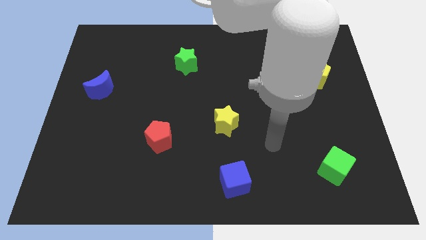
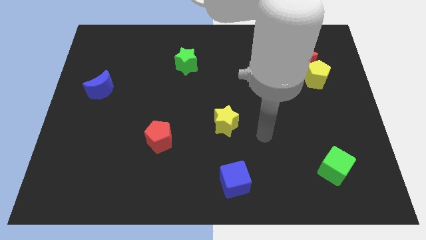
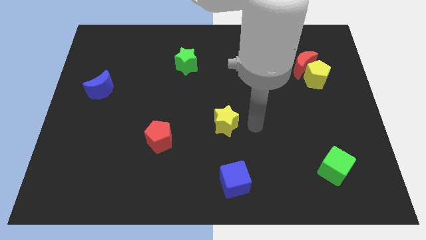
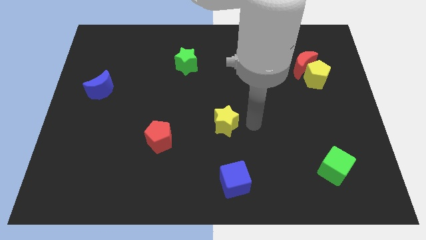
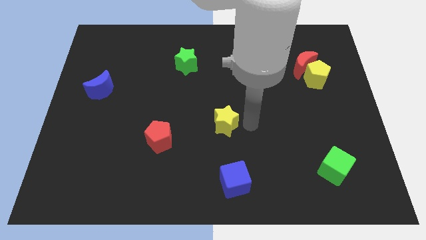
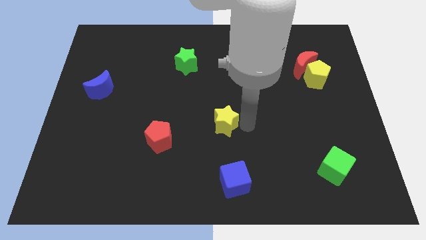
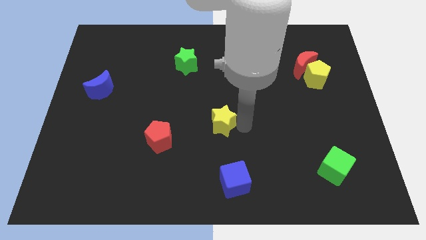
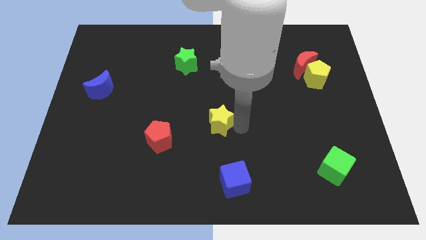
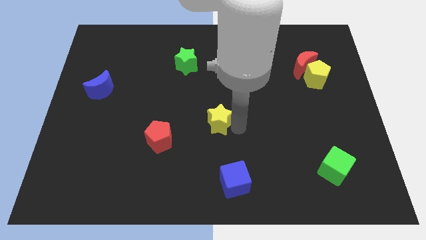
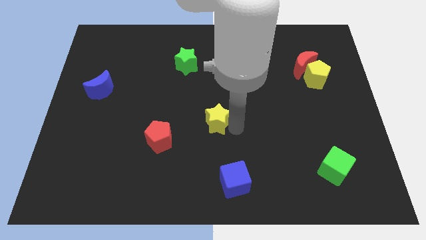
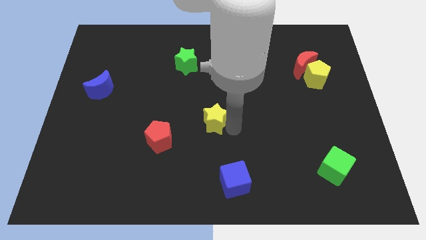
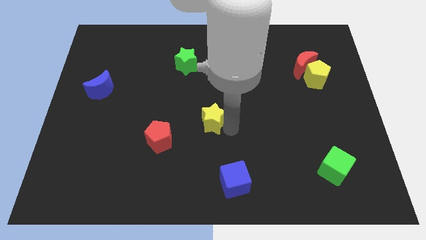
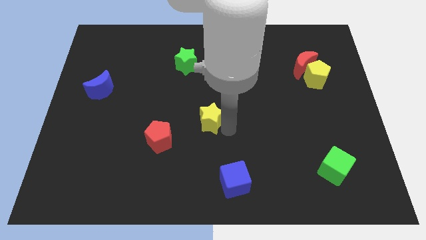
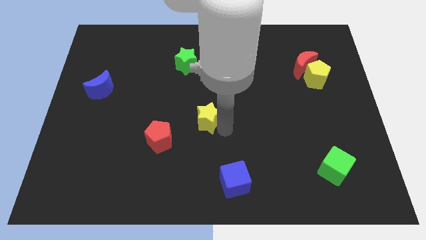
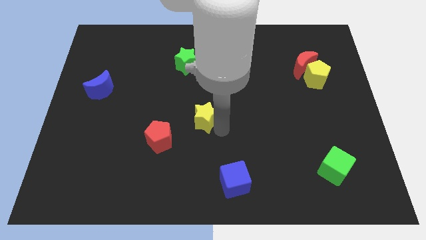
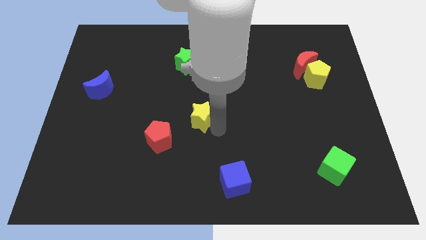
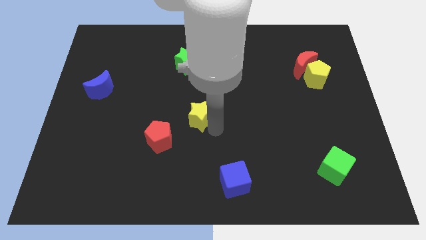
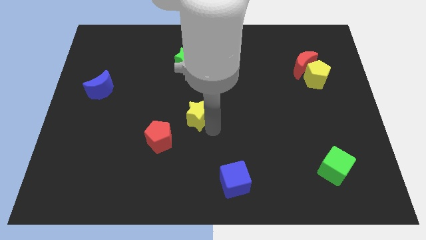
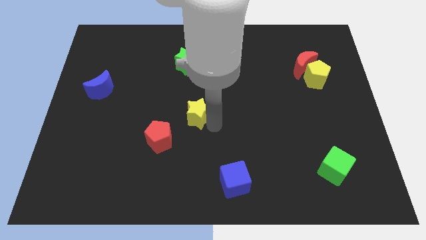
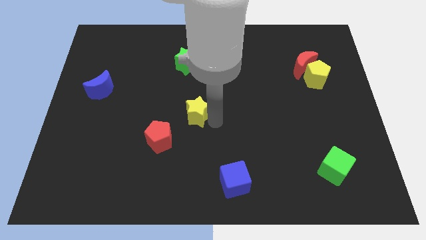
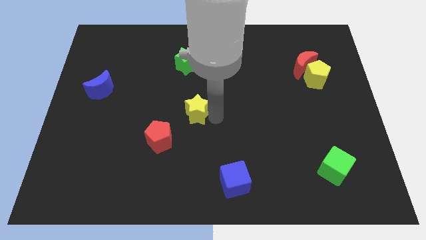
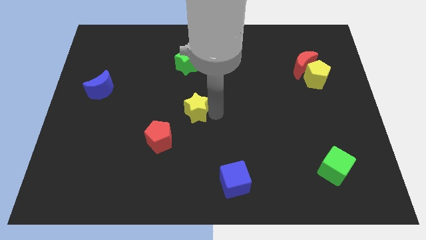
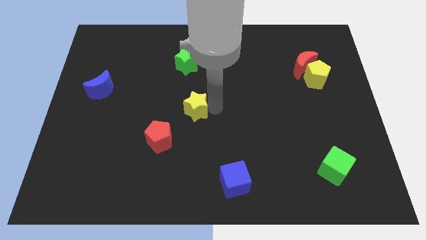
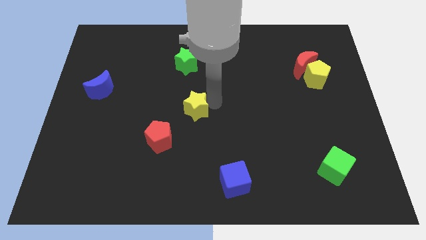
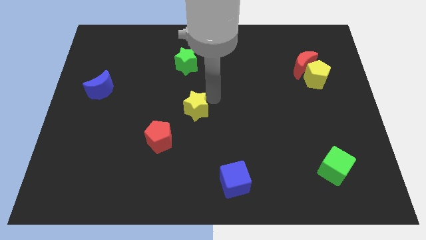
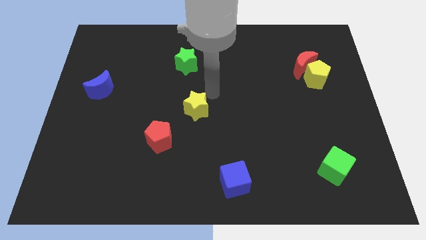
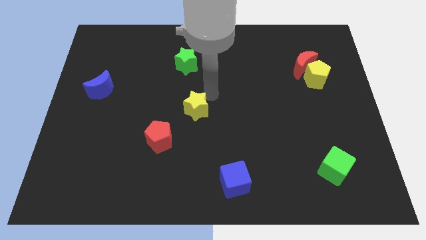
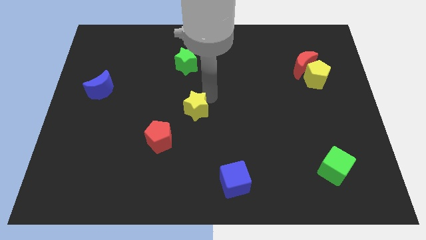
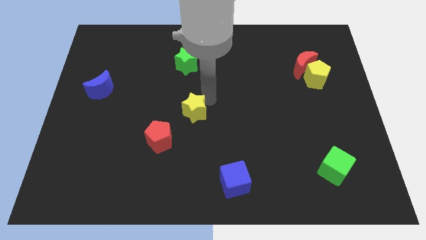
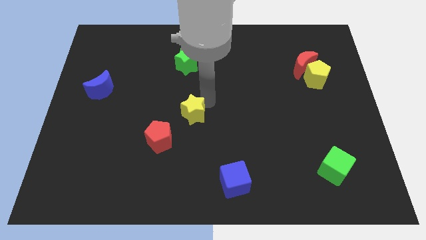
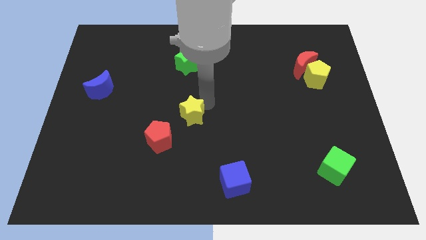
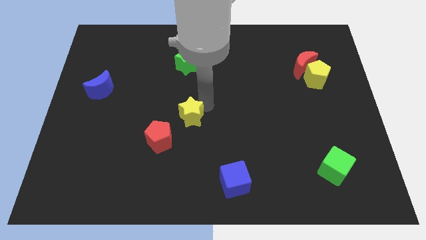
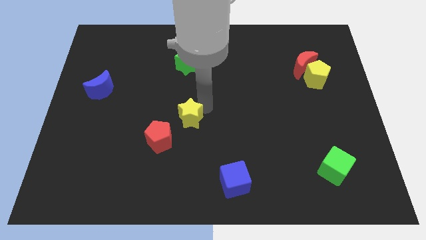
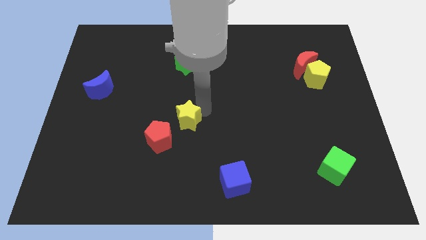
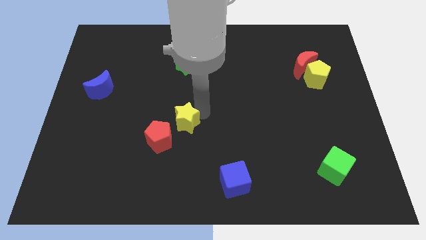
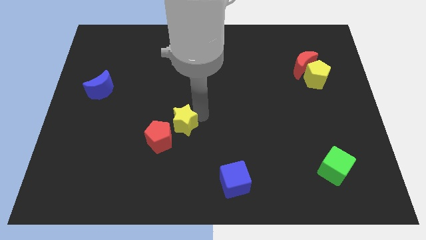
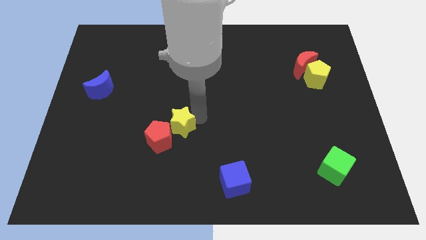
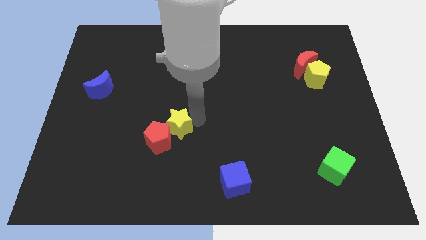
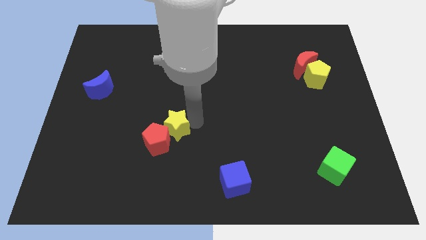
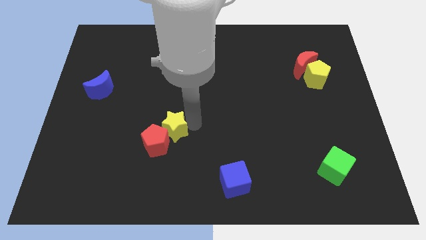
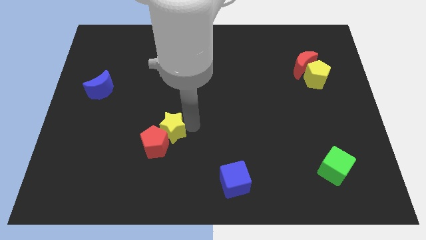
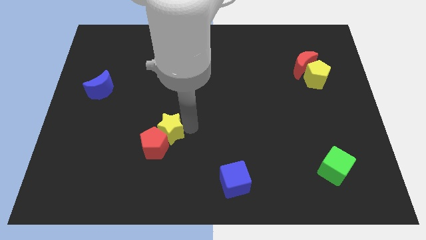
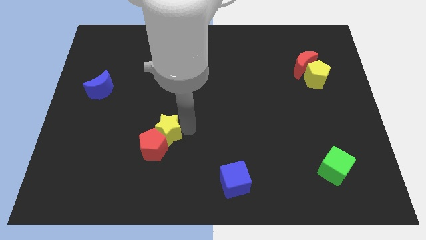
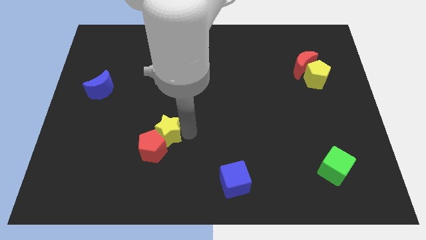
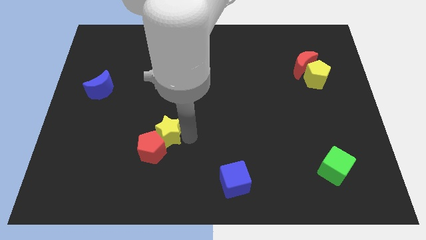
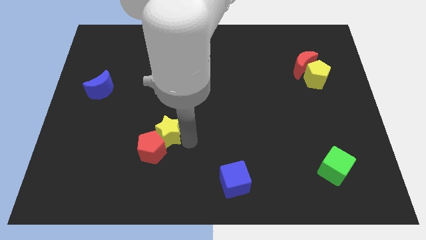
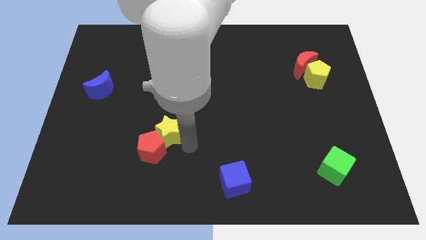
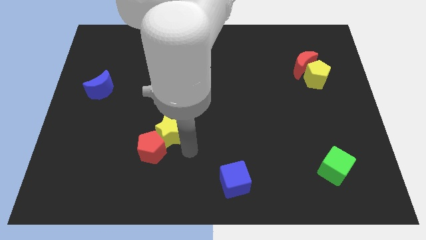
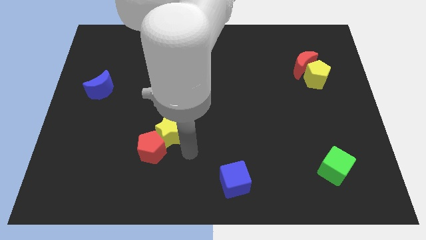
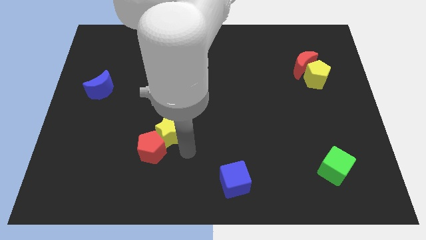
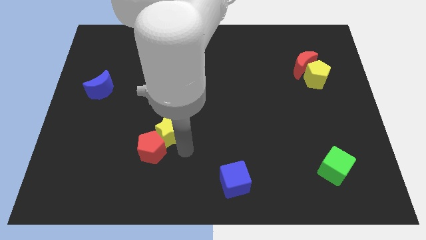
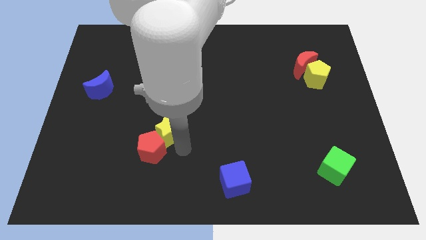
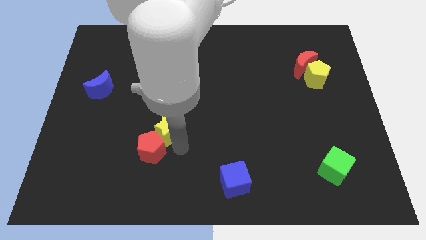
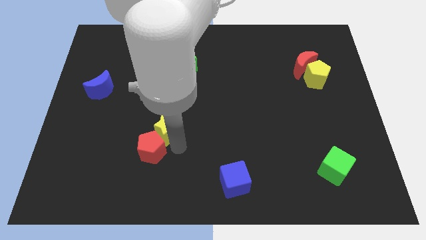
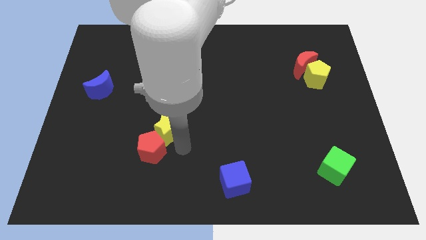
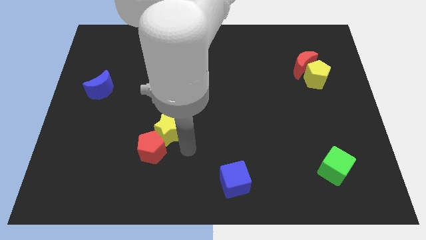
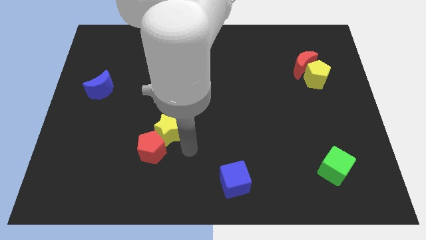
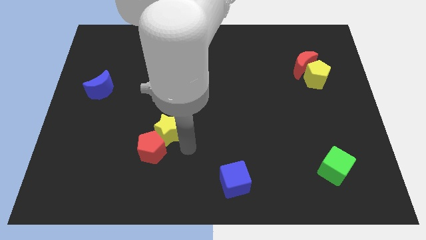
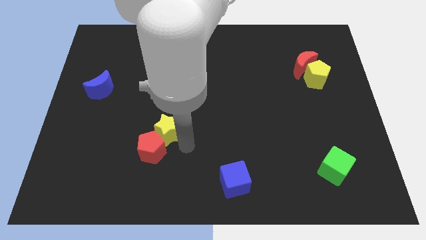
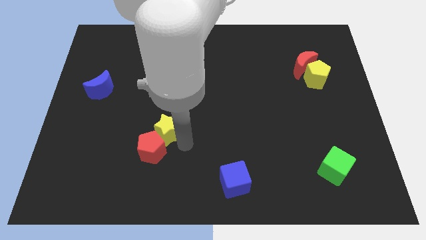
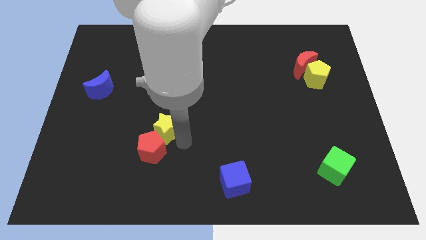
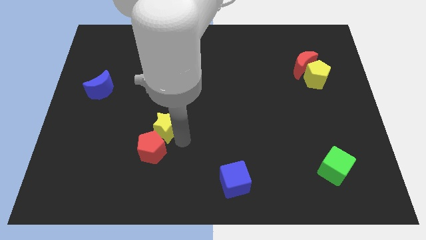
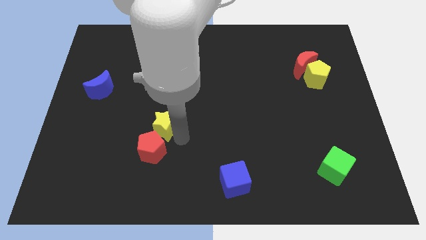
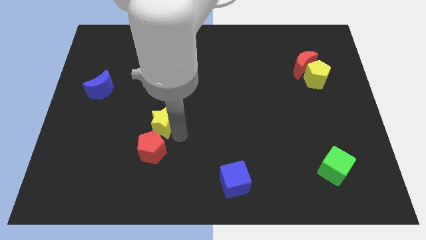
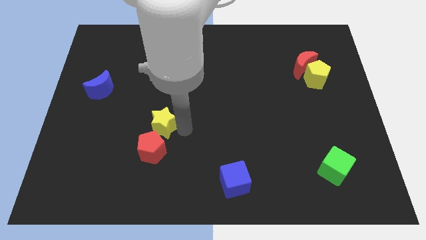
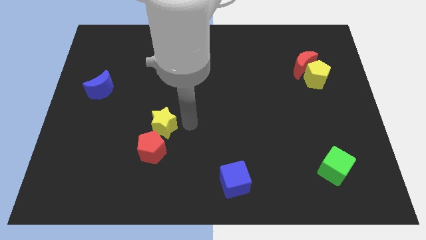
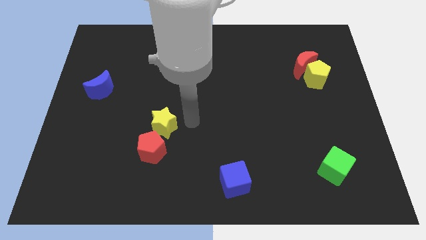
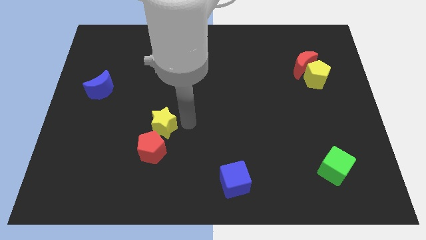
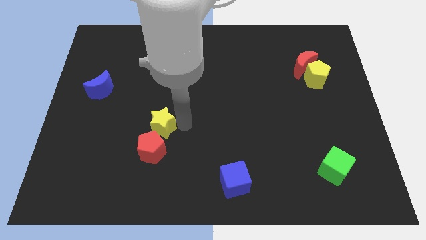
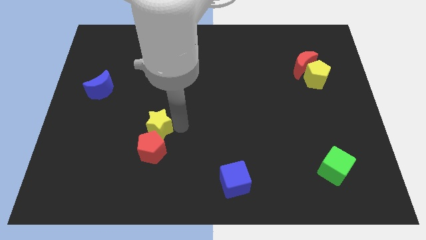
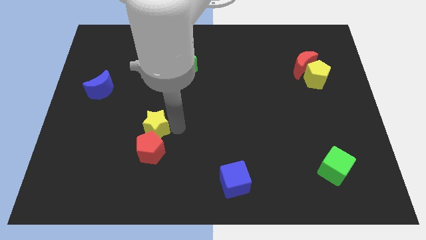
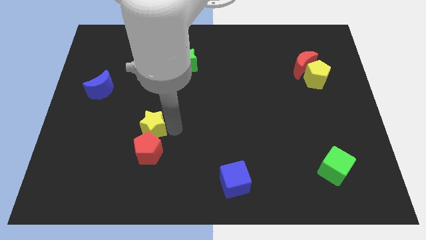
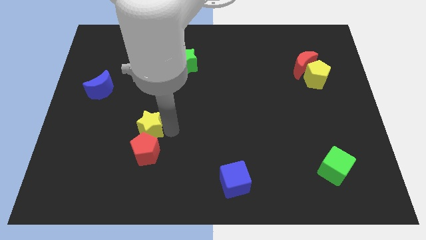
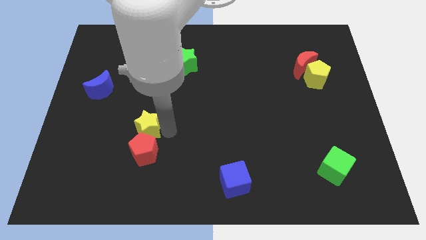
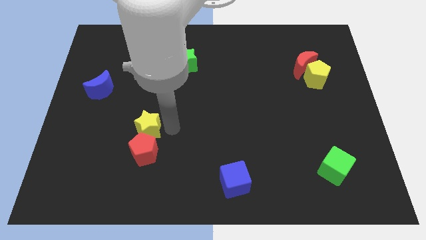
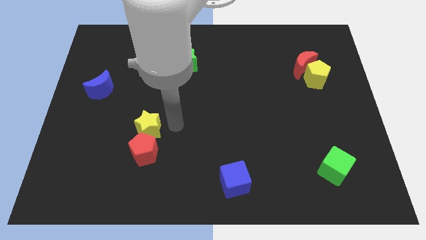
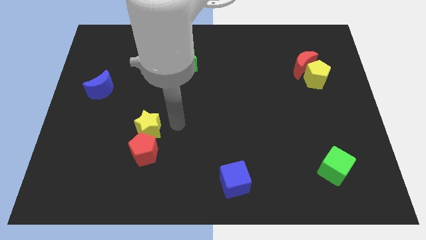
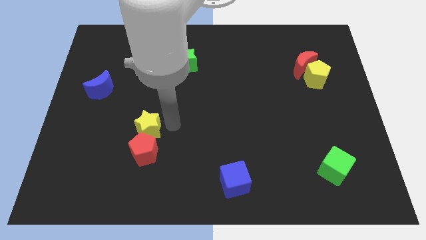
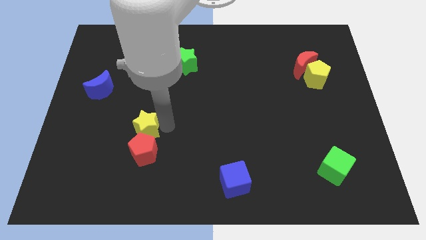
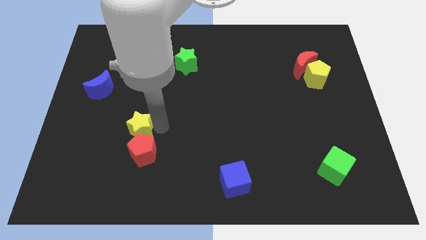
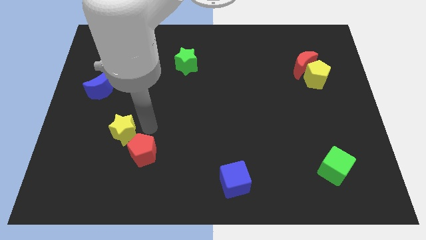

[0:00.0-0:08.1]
move the yellow star left of the red pentagon
